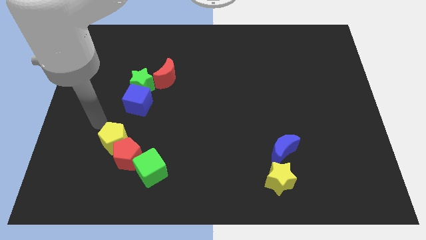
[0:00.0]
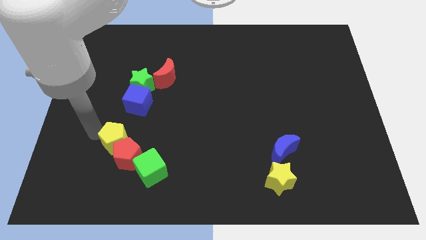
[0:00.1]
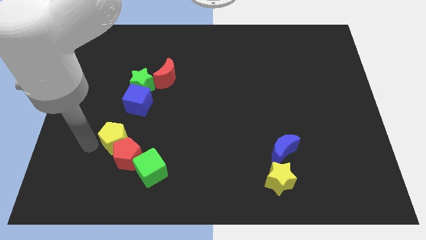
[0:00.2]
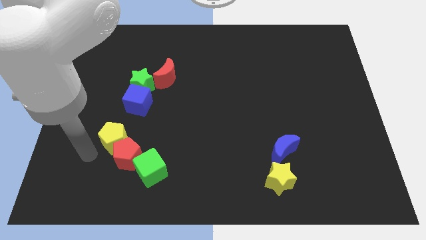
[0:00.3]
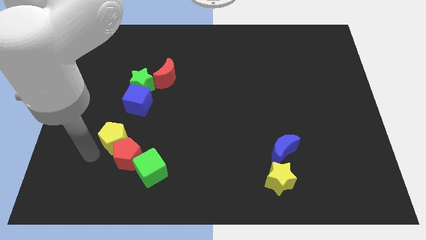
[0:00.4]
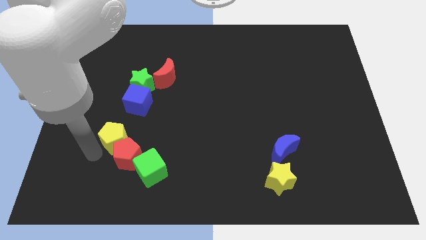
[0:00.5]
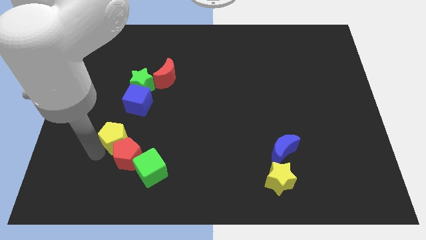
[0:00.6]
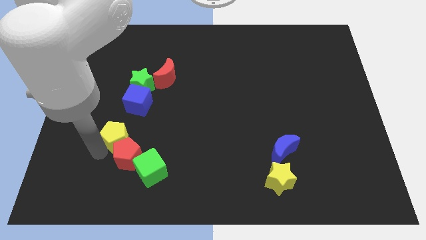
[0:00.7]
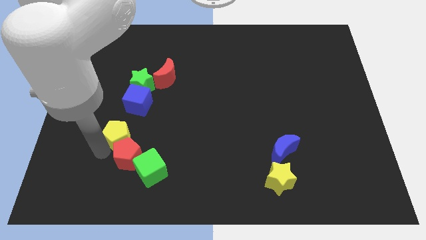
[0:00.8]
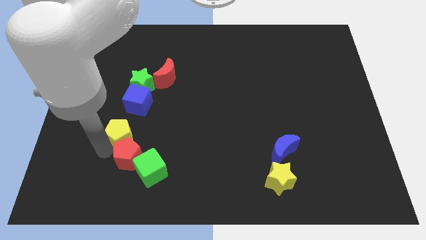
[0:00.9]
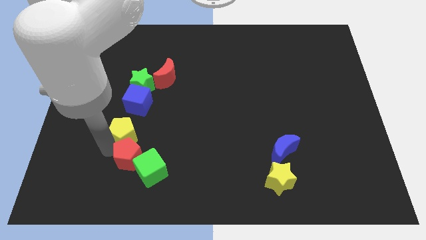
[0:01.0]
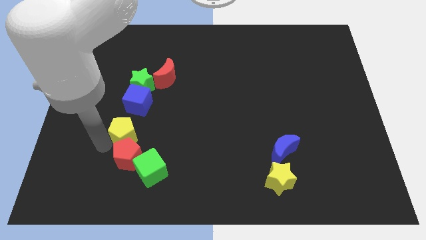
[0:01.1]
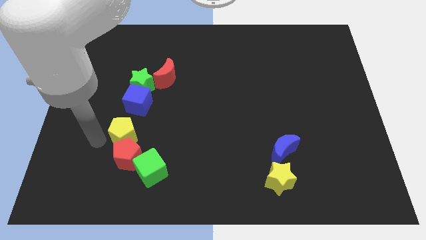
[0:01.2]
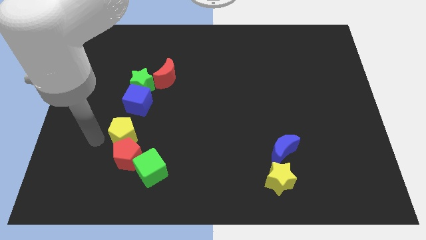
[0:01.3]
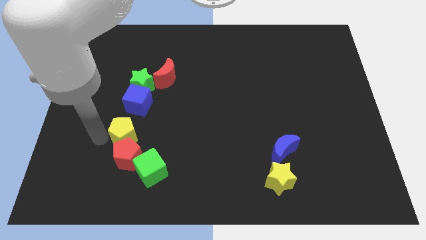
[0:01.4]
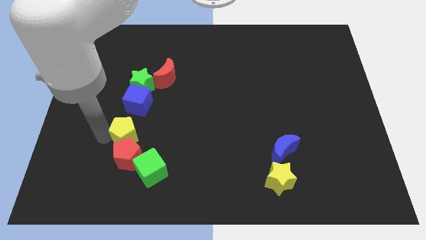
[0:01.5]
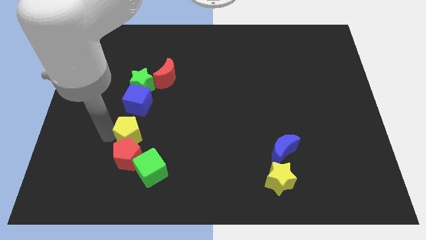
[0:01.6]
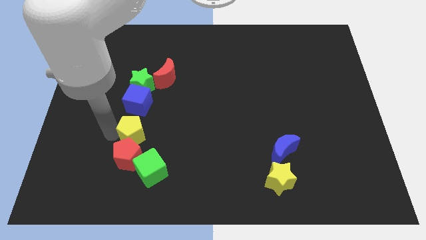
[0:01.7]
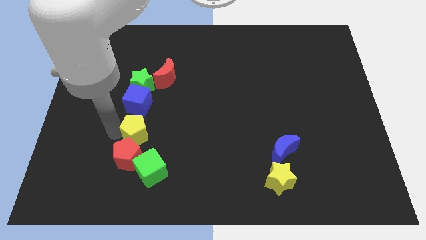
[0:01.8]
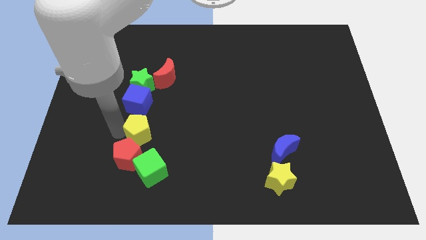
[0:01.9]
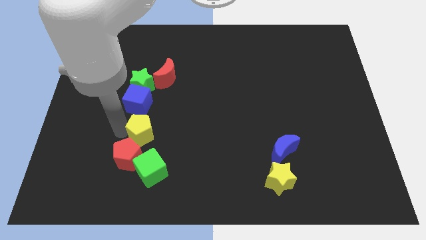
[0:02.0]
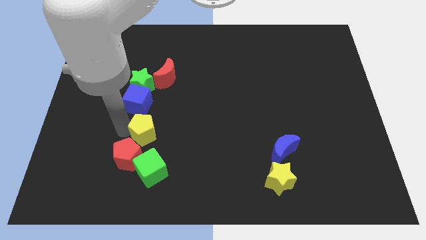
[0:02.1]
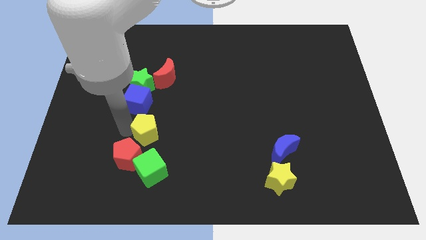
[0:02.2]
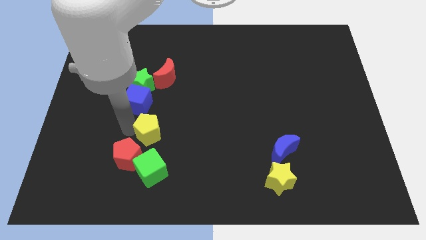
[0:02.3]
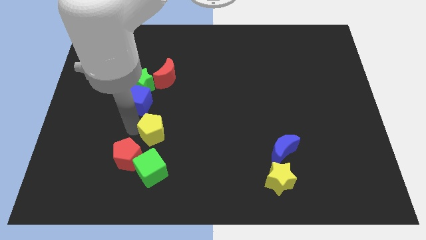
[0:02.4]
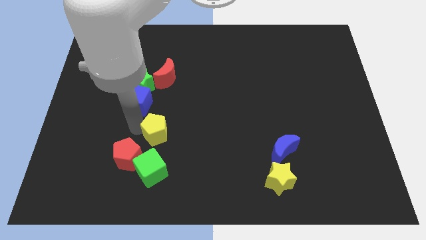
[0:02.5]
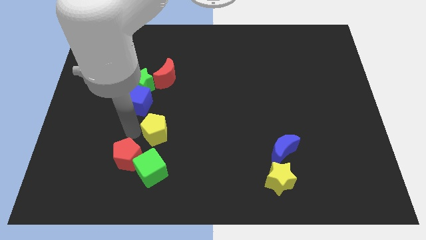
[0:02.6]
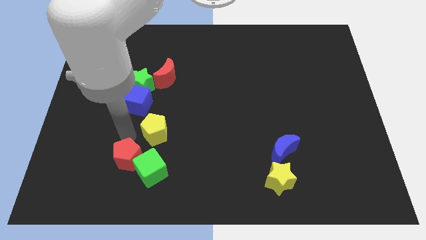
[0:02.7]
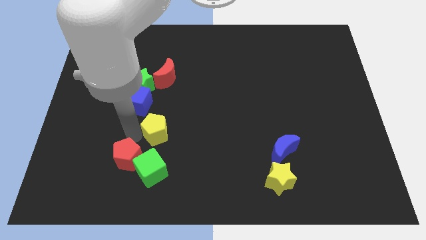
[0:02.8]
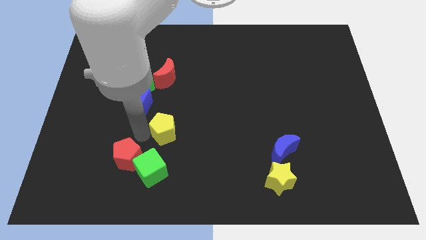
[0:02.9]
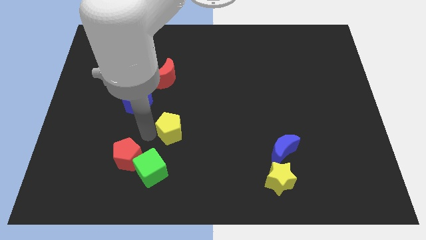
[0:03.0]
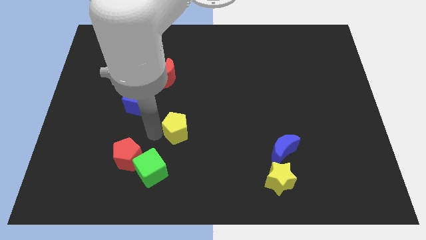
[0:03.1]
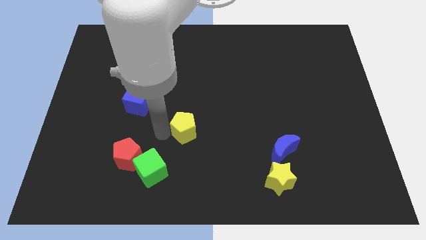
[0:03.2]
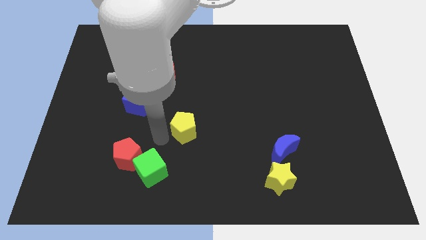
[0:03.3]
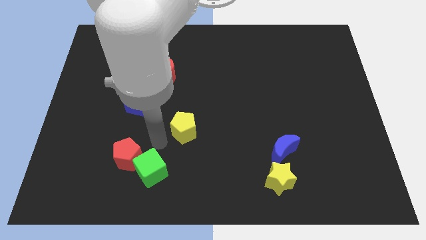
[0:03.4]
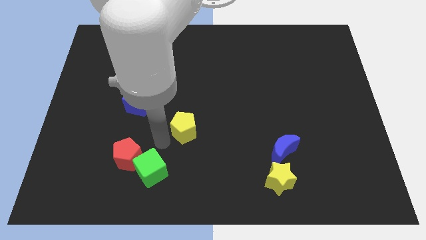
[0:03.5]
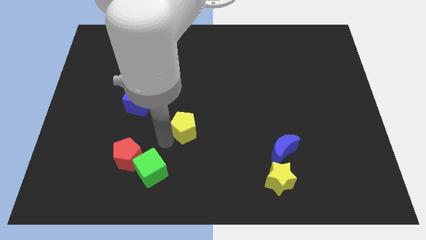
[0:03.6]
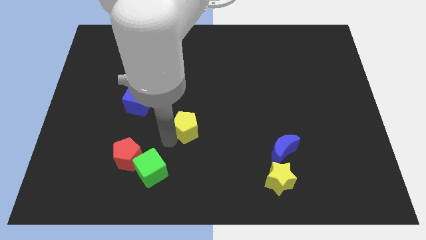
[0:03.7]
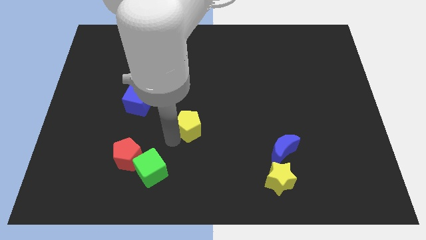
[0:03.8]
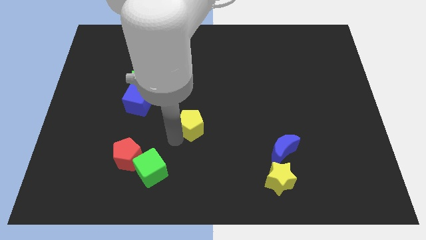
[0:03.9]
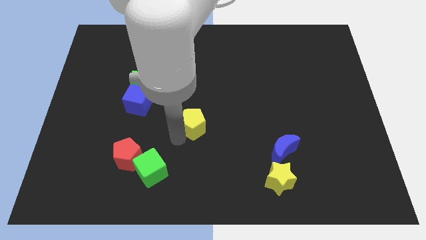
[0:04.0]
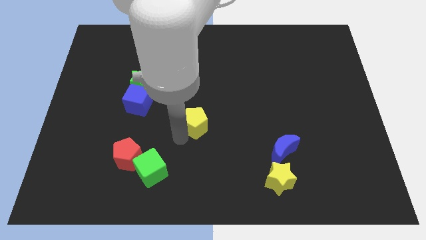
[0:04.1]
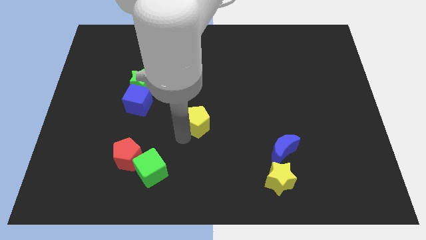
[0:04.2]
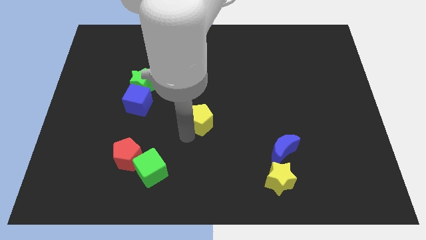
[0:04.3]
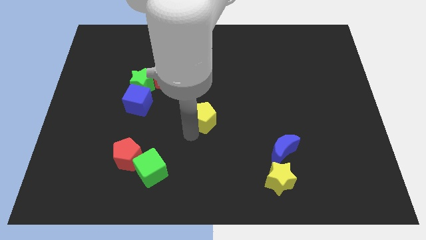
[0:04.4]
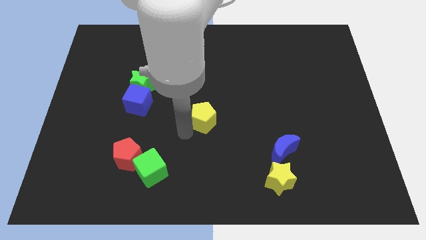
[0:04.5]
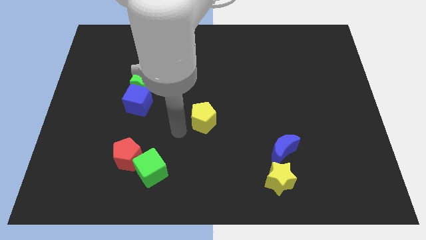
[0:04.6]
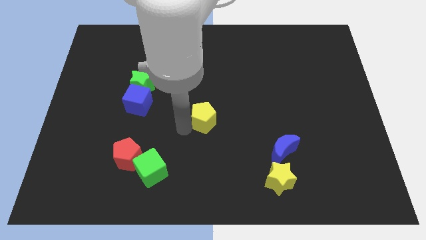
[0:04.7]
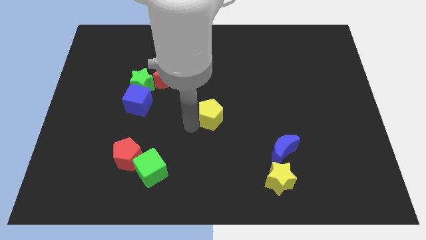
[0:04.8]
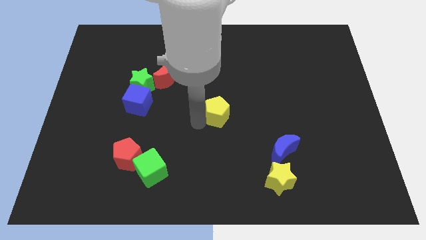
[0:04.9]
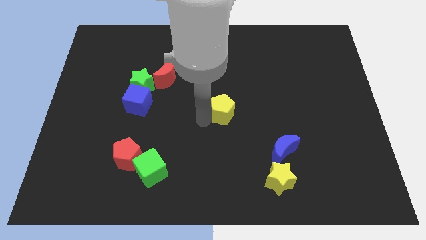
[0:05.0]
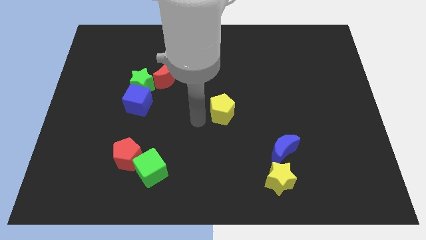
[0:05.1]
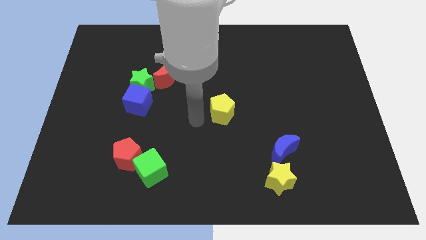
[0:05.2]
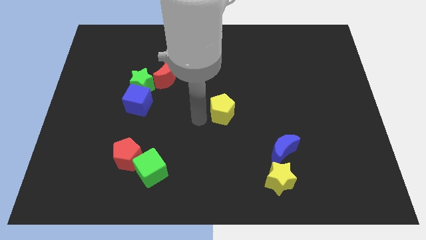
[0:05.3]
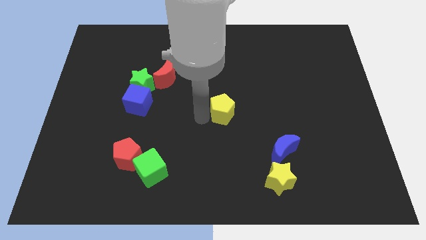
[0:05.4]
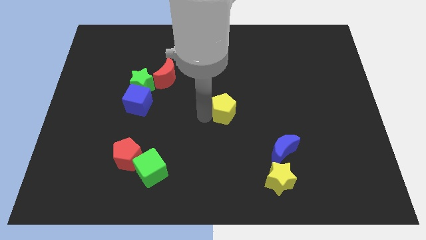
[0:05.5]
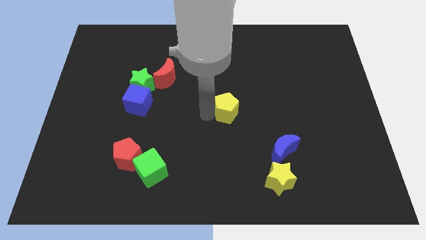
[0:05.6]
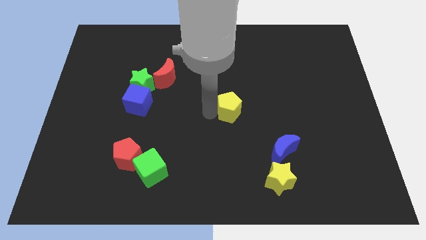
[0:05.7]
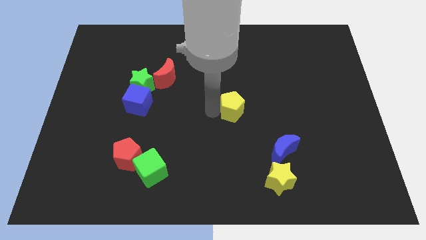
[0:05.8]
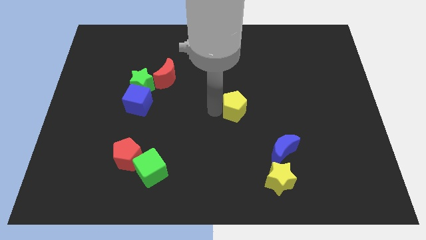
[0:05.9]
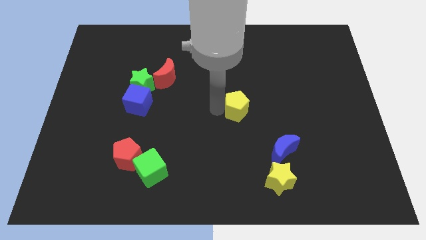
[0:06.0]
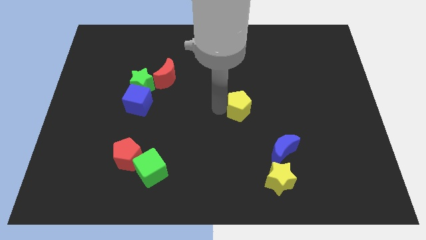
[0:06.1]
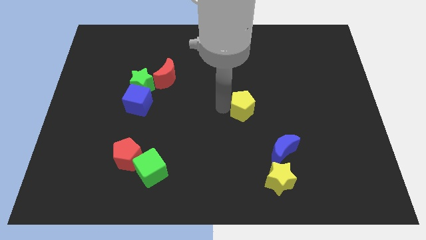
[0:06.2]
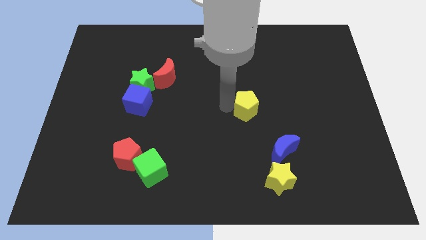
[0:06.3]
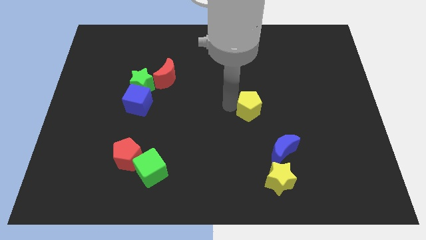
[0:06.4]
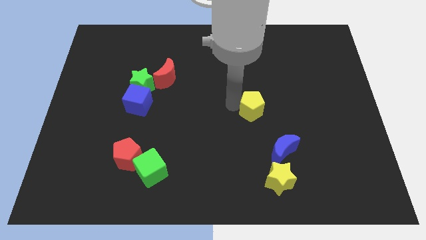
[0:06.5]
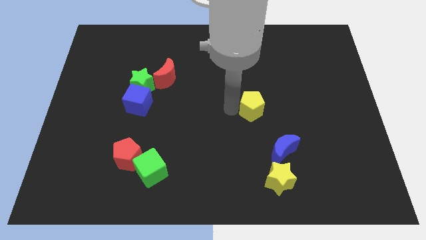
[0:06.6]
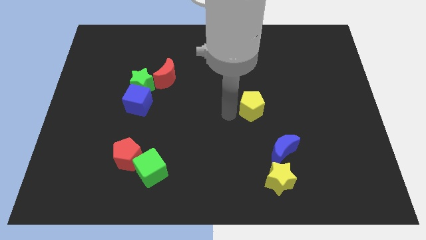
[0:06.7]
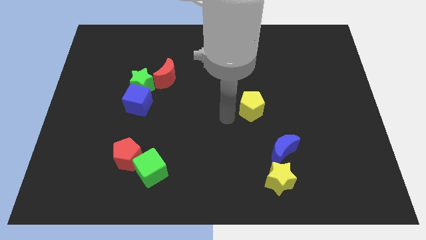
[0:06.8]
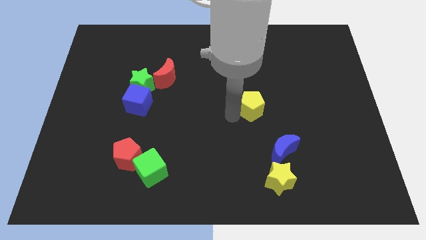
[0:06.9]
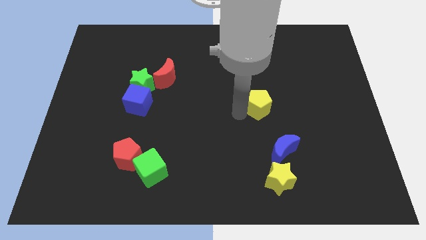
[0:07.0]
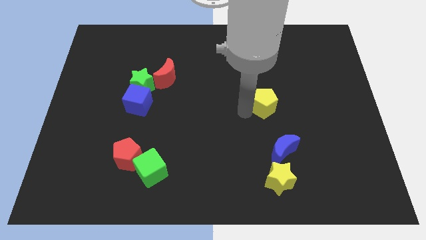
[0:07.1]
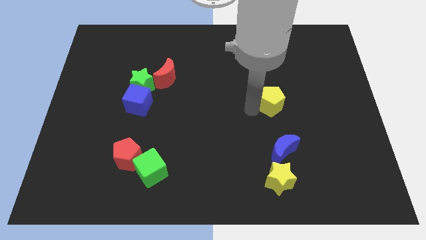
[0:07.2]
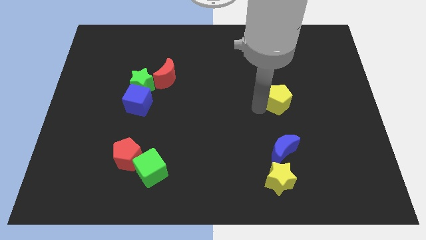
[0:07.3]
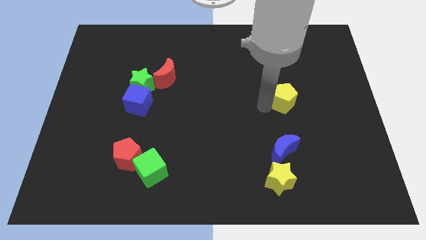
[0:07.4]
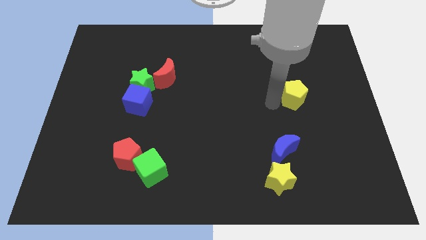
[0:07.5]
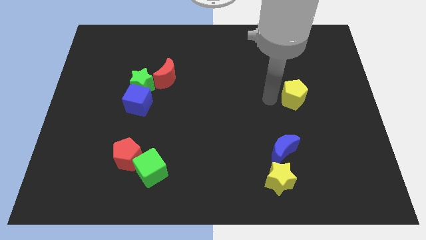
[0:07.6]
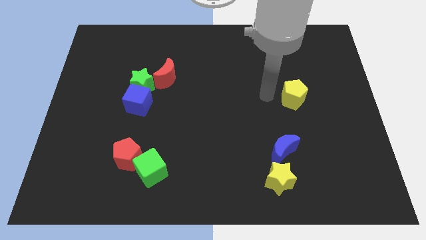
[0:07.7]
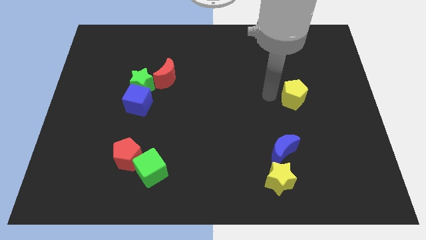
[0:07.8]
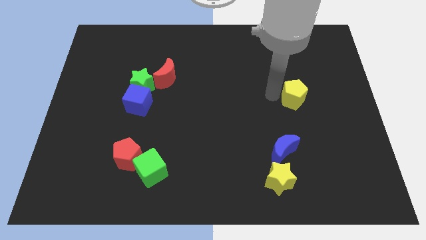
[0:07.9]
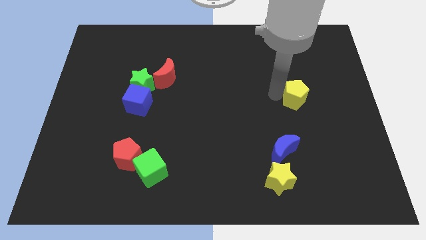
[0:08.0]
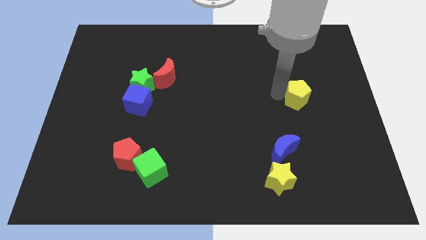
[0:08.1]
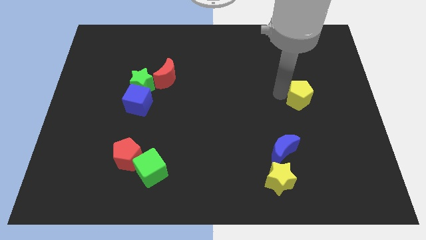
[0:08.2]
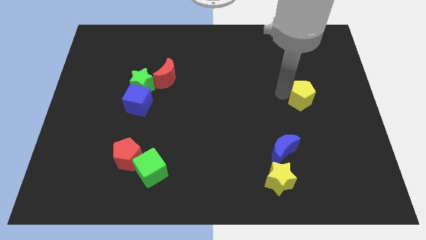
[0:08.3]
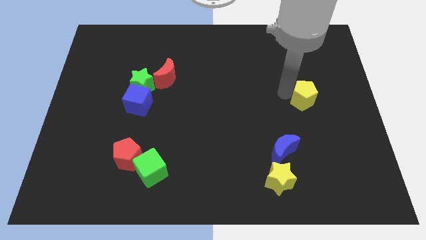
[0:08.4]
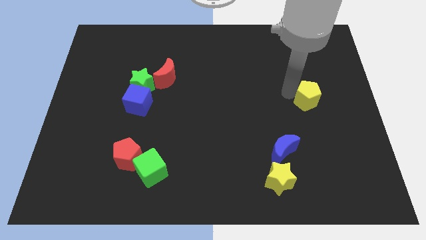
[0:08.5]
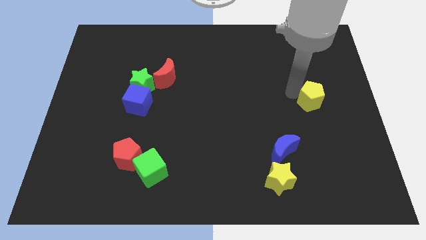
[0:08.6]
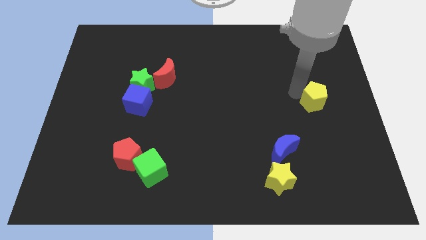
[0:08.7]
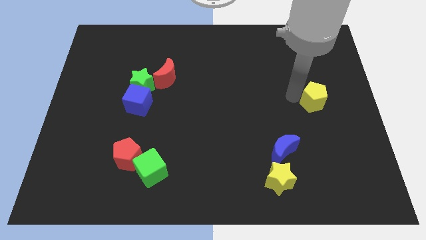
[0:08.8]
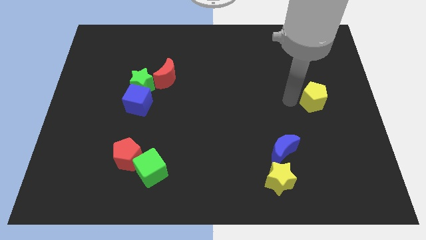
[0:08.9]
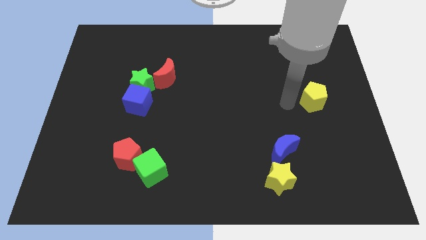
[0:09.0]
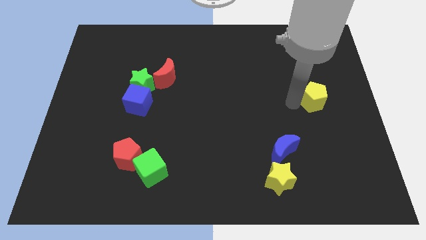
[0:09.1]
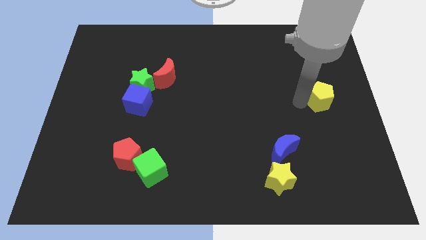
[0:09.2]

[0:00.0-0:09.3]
put the yellow pentagon to the right side of the board
